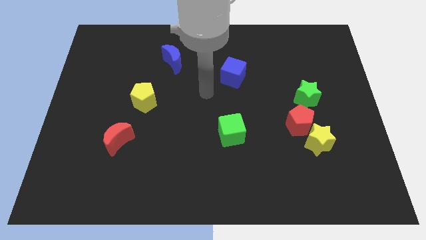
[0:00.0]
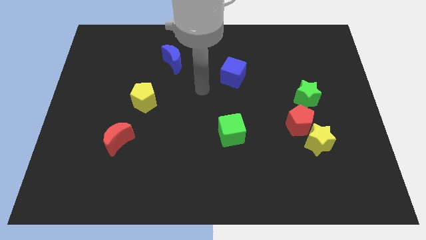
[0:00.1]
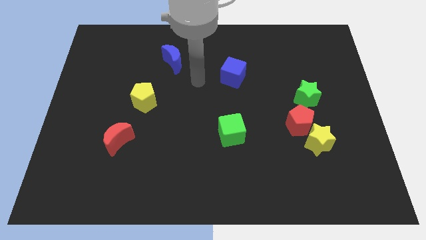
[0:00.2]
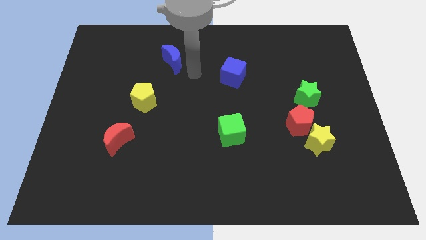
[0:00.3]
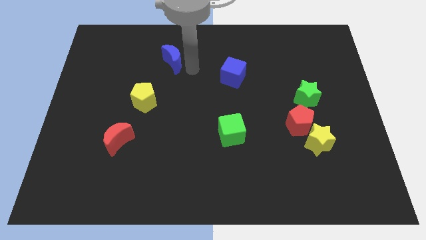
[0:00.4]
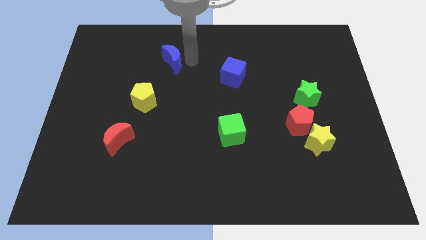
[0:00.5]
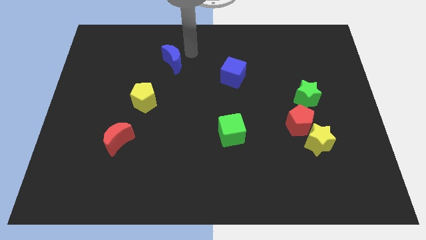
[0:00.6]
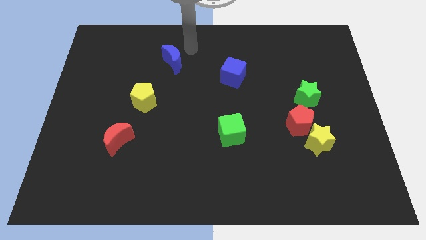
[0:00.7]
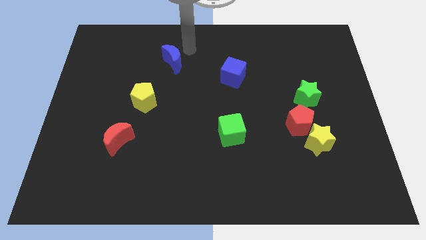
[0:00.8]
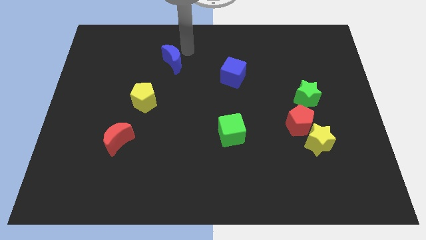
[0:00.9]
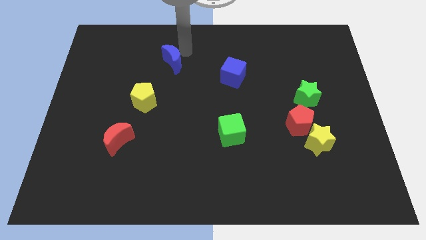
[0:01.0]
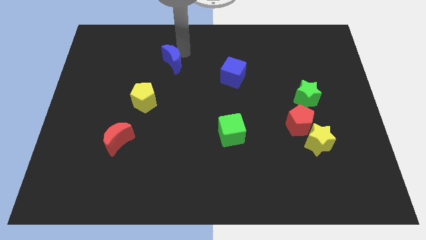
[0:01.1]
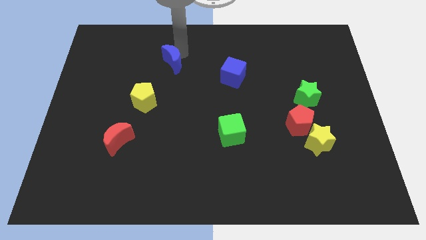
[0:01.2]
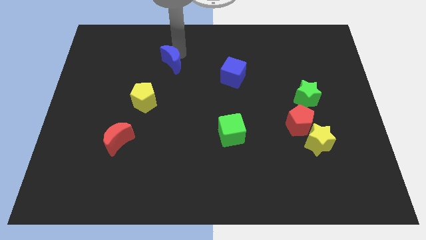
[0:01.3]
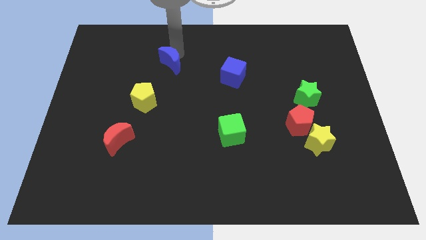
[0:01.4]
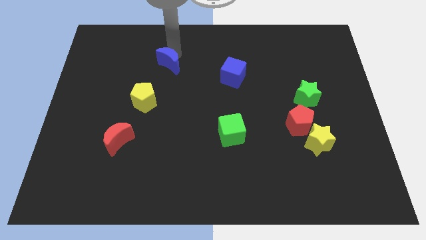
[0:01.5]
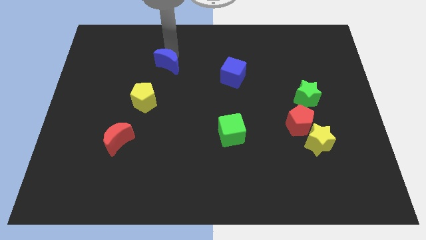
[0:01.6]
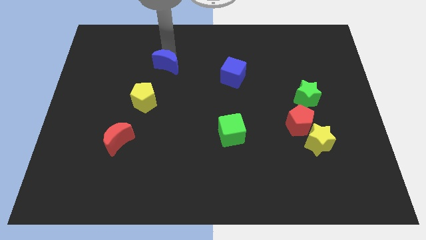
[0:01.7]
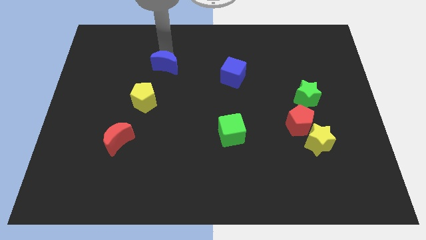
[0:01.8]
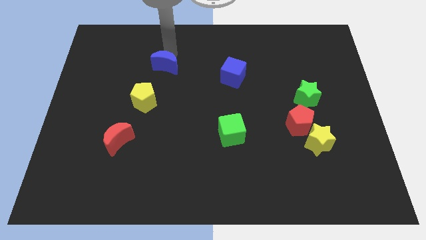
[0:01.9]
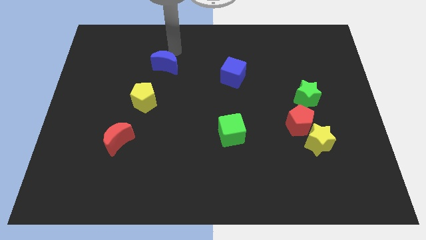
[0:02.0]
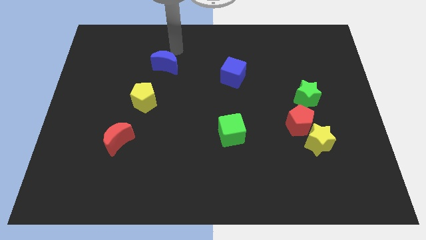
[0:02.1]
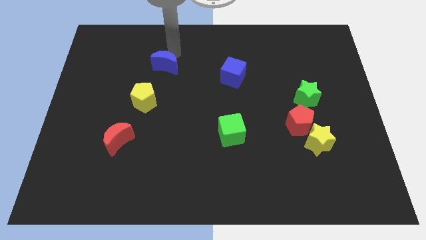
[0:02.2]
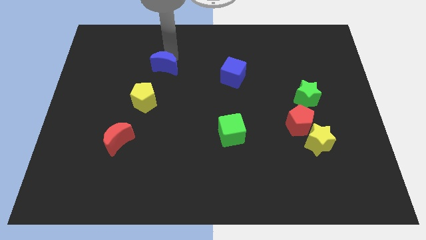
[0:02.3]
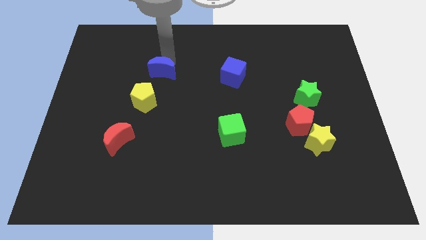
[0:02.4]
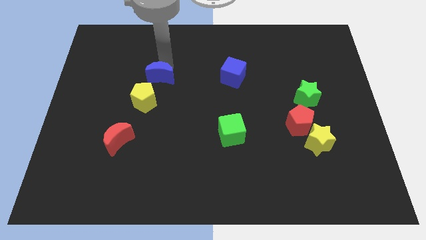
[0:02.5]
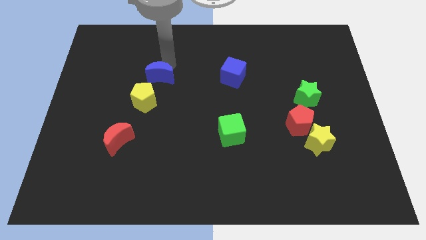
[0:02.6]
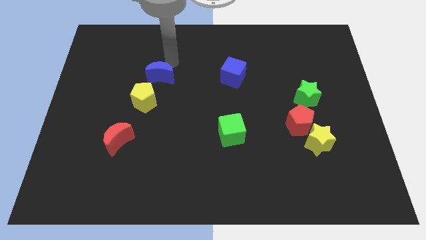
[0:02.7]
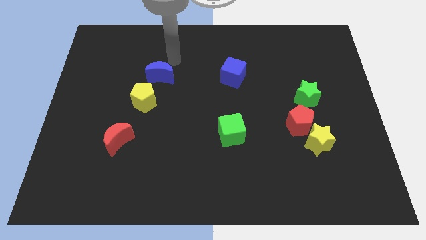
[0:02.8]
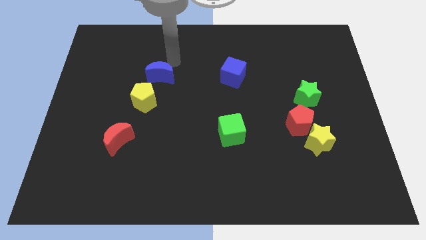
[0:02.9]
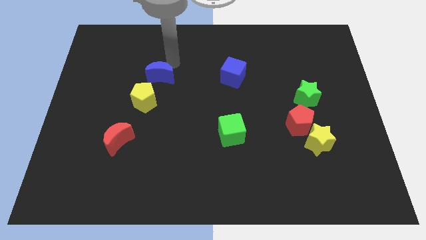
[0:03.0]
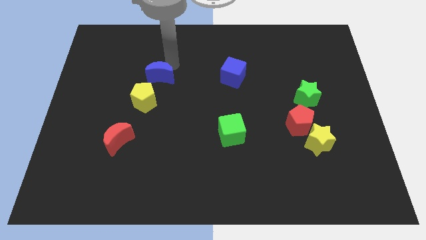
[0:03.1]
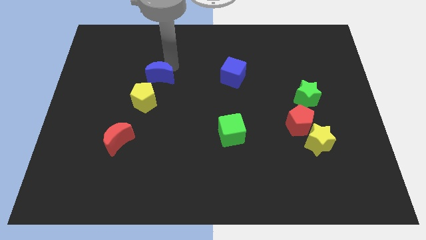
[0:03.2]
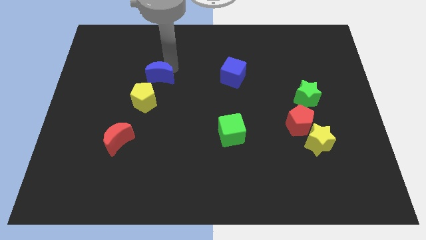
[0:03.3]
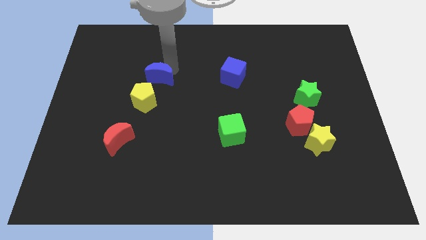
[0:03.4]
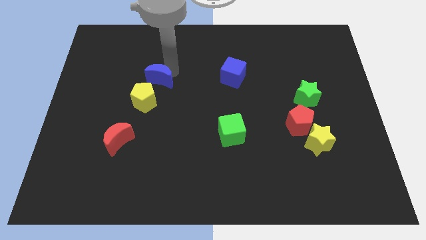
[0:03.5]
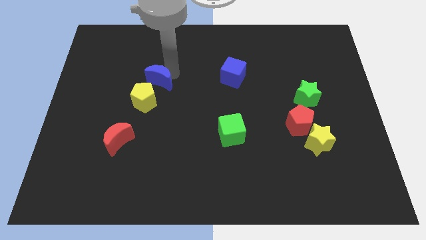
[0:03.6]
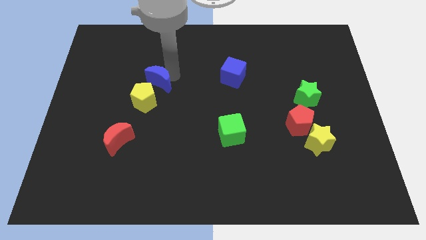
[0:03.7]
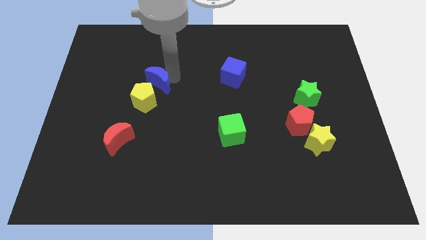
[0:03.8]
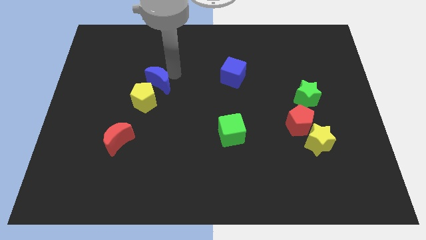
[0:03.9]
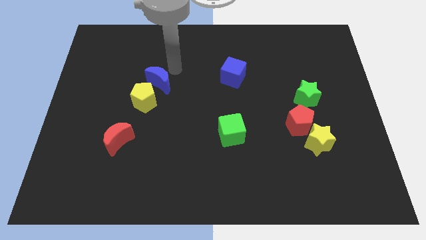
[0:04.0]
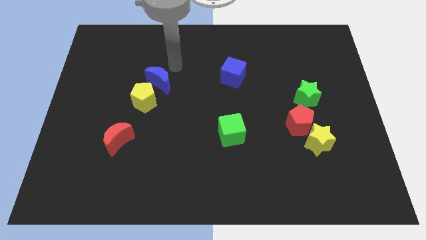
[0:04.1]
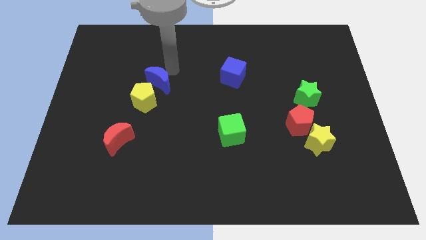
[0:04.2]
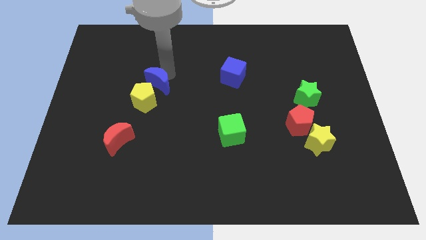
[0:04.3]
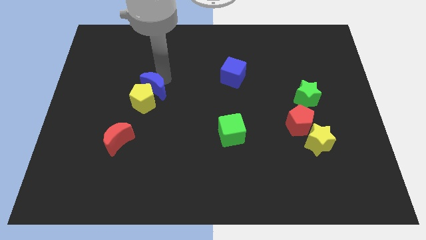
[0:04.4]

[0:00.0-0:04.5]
move the blue moon to the yellow pentagon

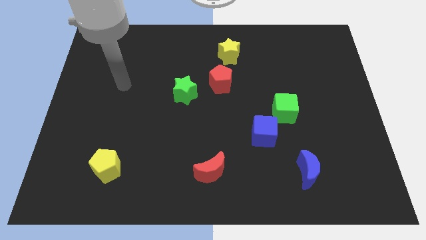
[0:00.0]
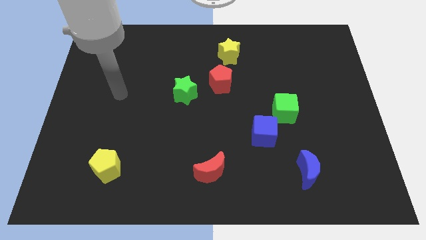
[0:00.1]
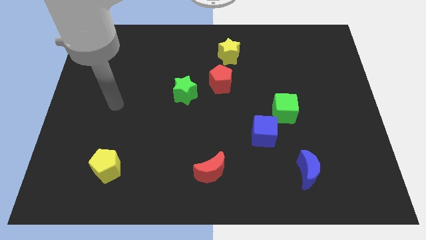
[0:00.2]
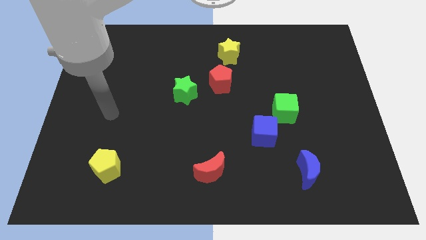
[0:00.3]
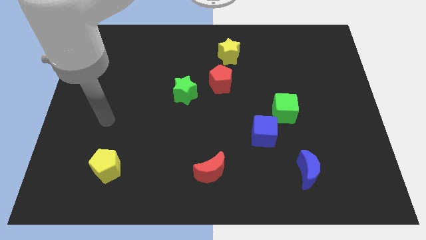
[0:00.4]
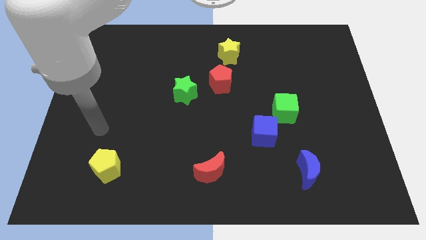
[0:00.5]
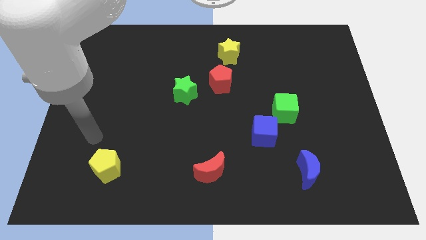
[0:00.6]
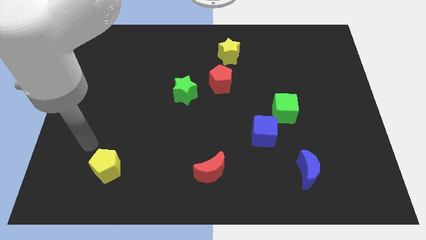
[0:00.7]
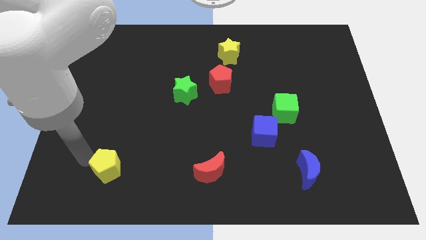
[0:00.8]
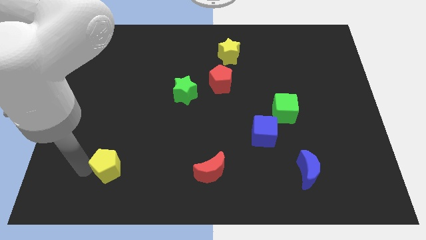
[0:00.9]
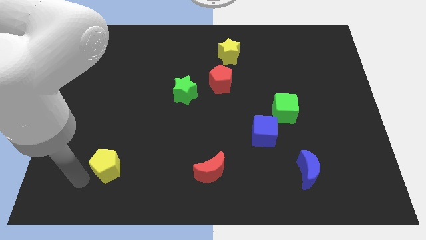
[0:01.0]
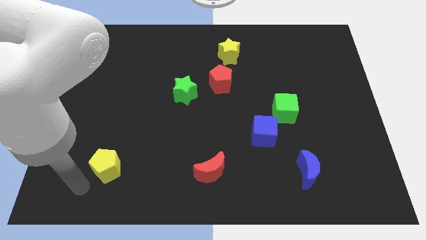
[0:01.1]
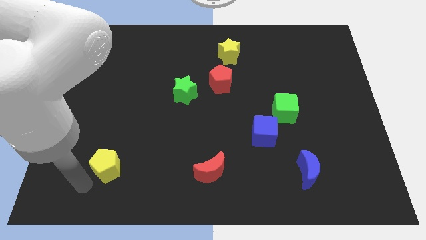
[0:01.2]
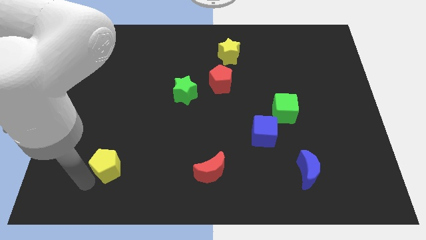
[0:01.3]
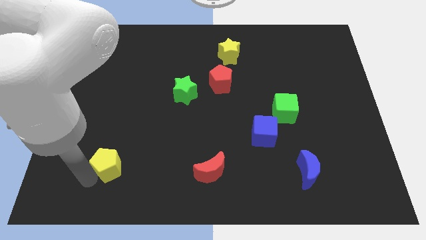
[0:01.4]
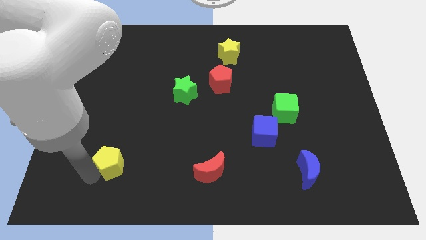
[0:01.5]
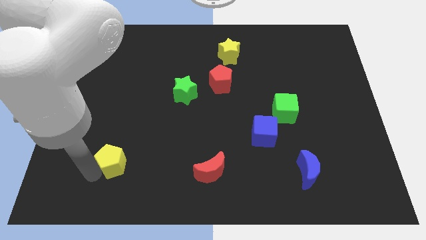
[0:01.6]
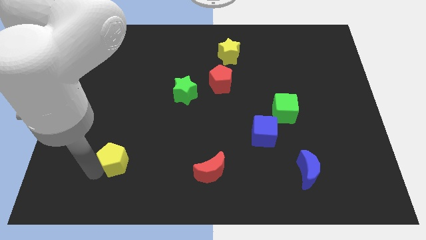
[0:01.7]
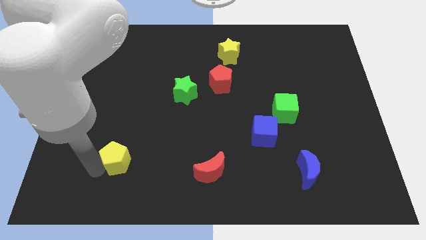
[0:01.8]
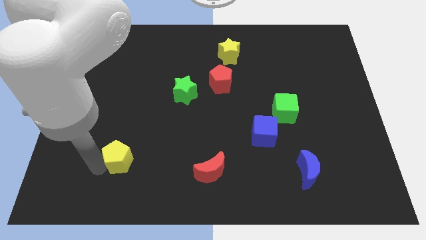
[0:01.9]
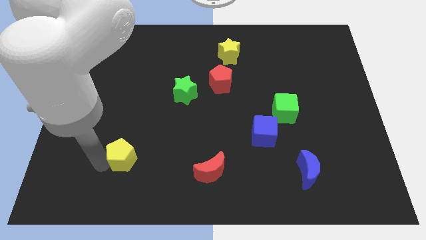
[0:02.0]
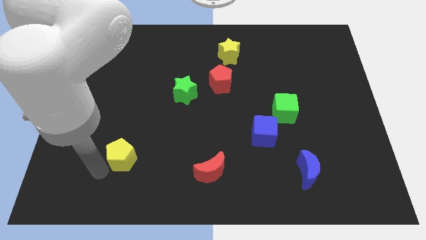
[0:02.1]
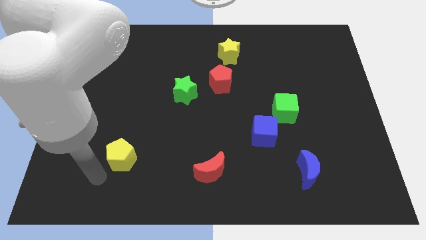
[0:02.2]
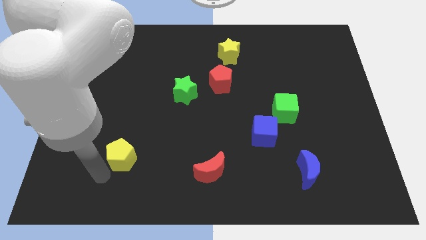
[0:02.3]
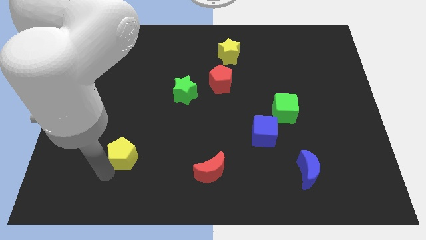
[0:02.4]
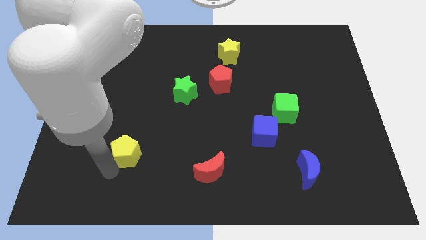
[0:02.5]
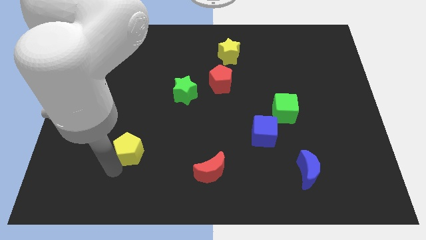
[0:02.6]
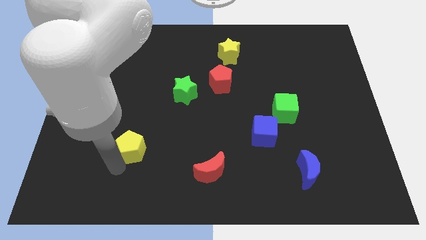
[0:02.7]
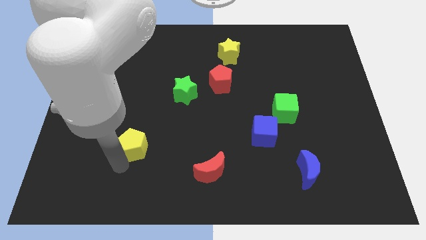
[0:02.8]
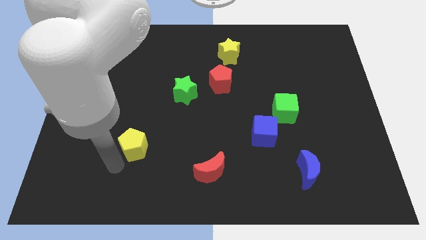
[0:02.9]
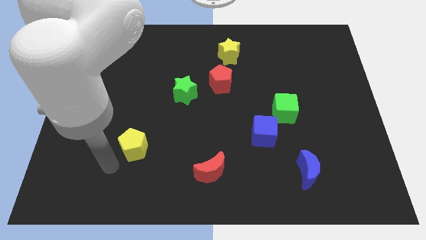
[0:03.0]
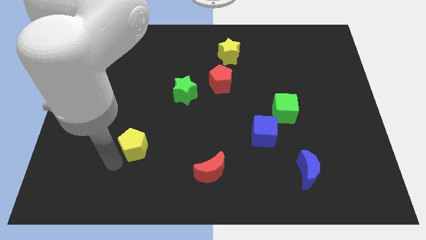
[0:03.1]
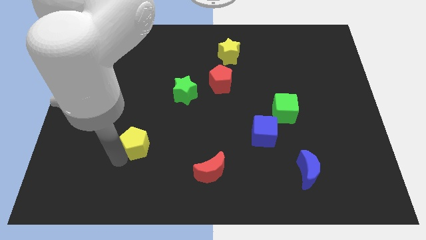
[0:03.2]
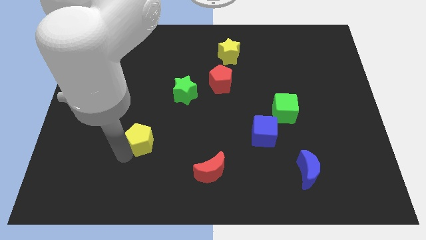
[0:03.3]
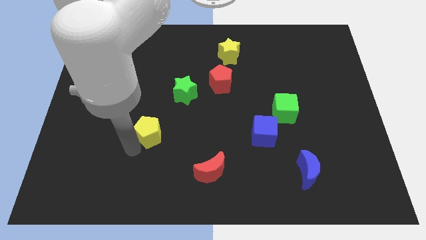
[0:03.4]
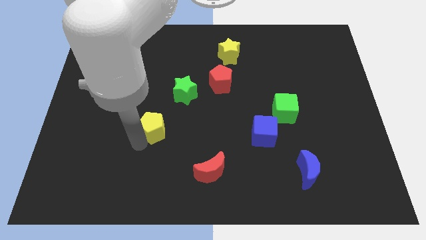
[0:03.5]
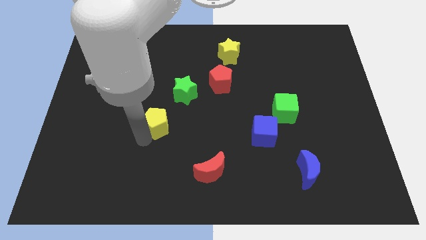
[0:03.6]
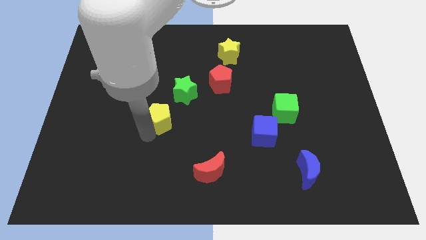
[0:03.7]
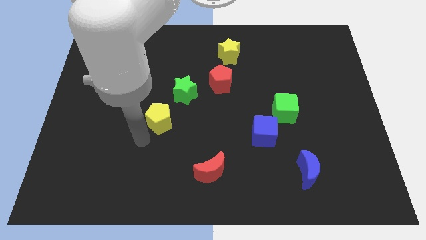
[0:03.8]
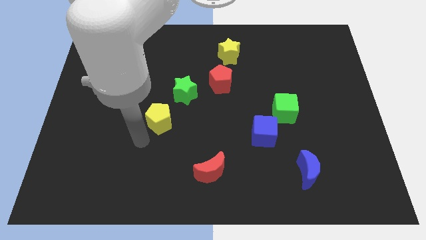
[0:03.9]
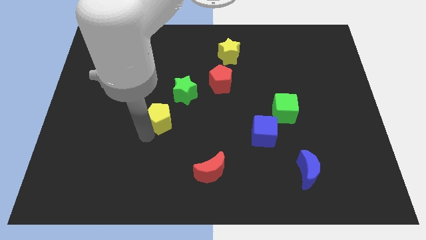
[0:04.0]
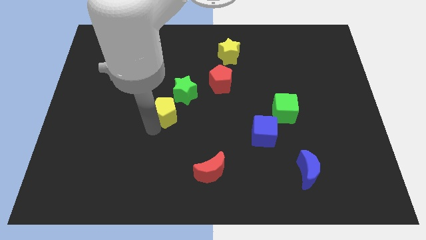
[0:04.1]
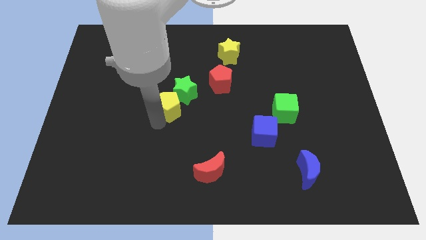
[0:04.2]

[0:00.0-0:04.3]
move the yellow pentagon close to the green star
